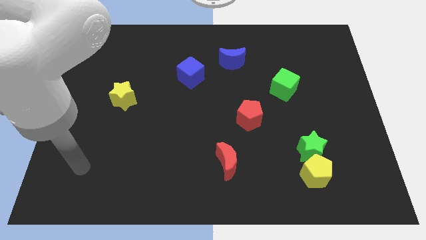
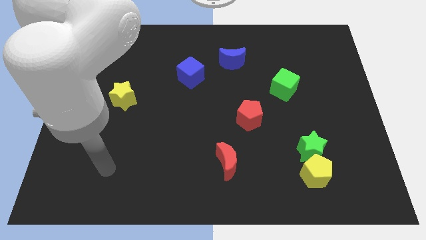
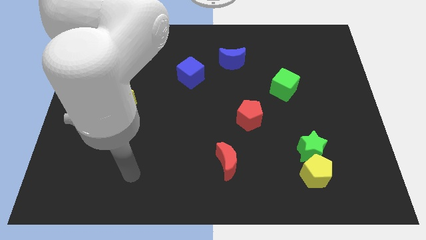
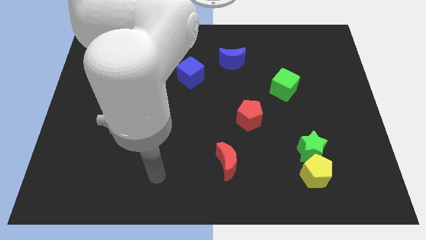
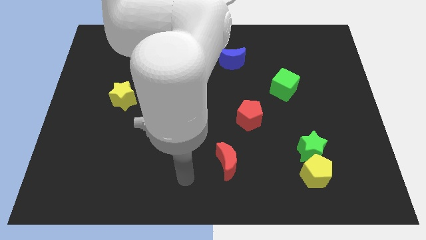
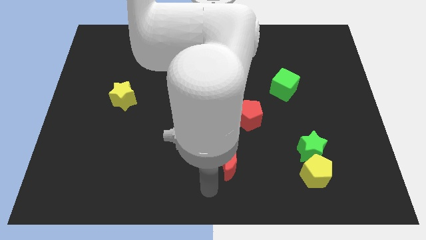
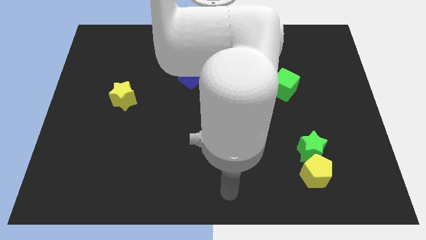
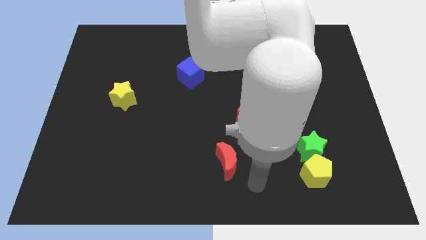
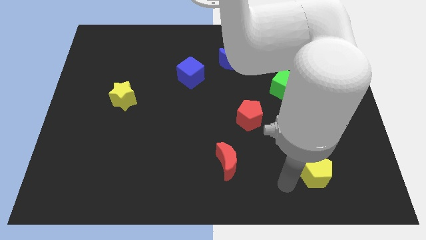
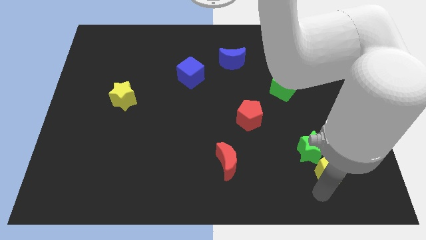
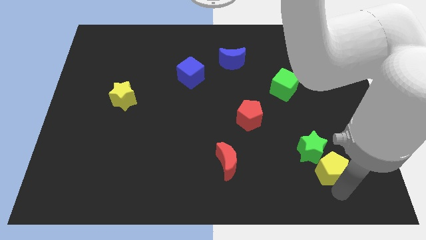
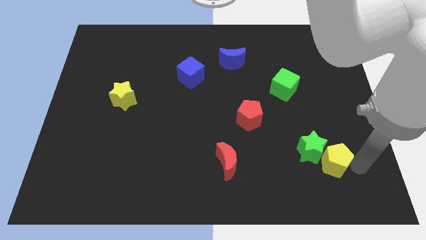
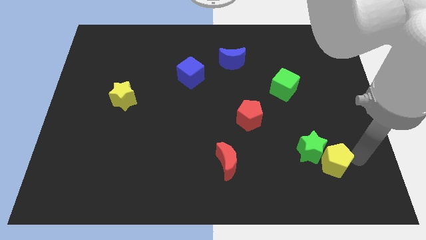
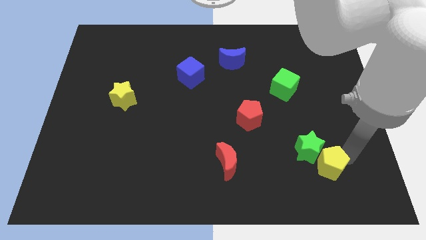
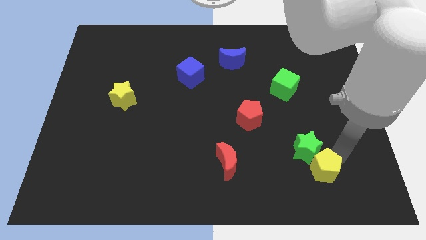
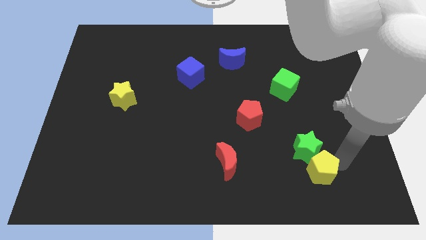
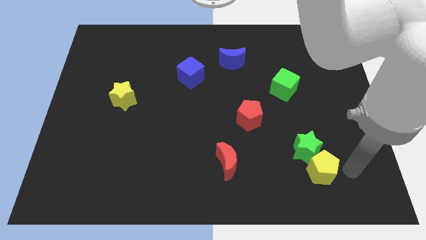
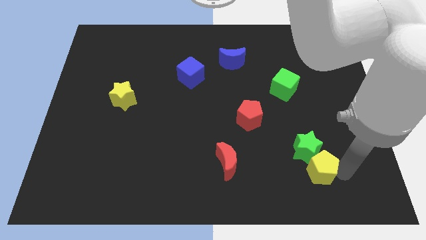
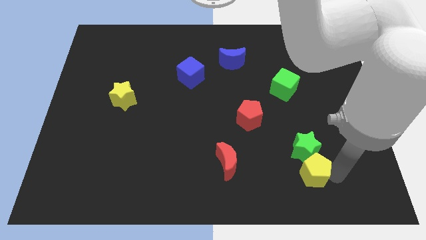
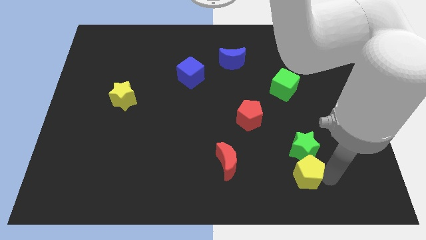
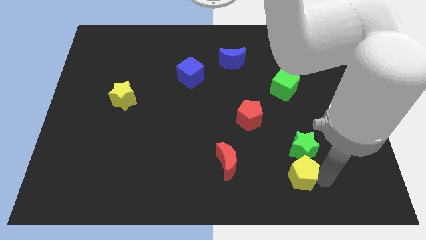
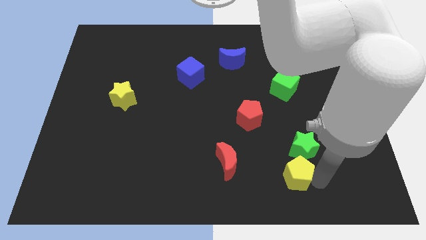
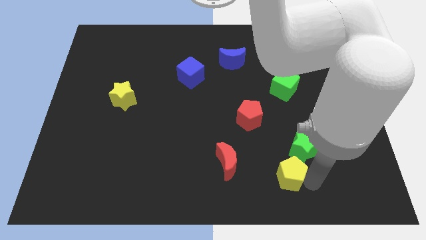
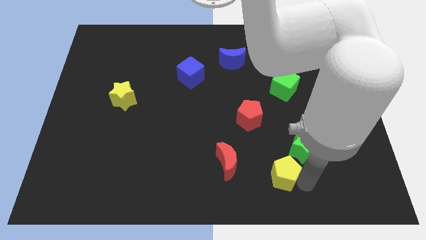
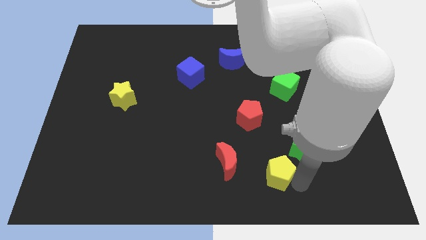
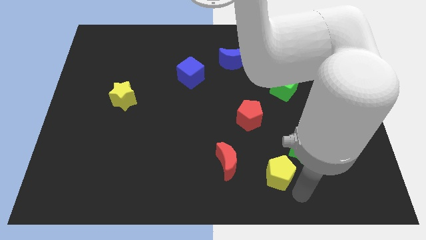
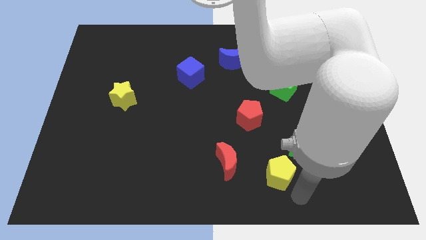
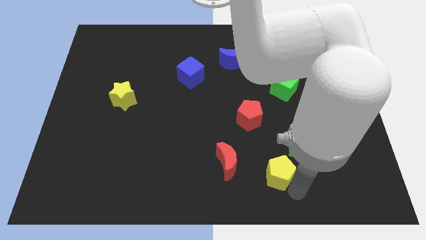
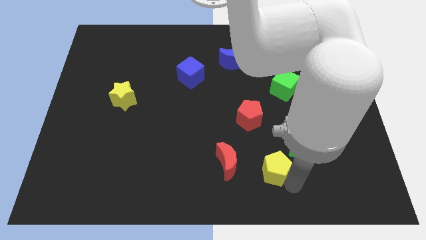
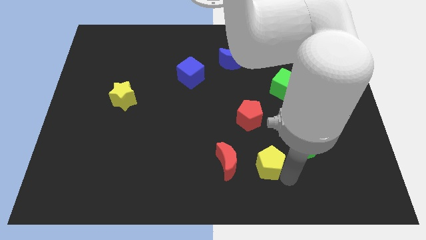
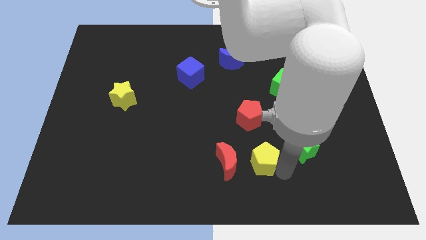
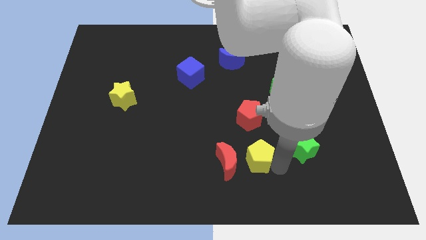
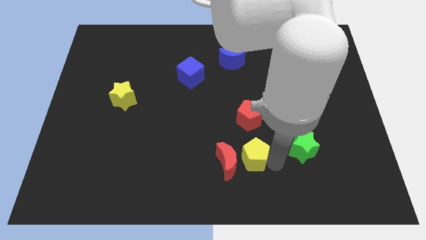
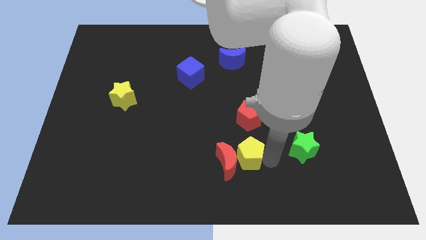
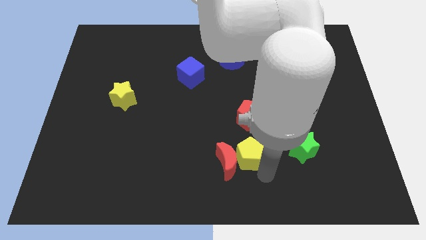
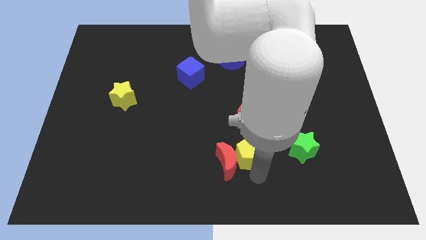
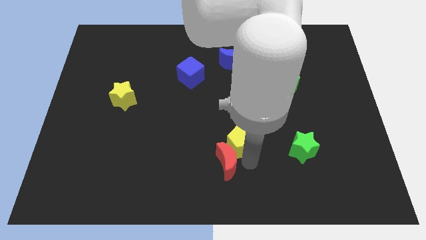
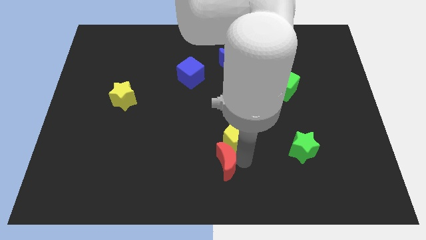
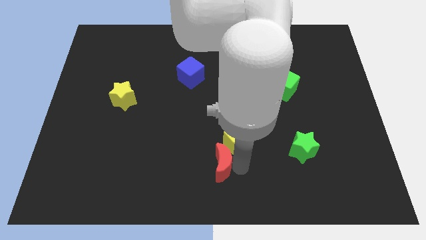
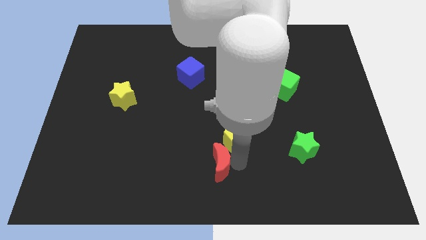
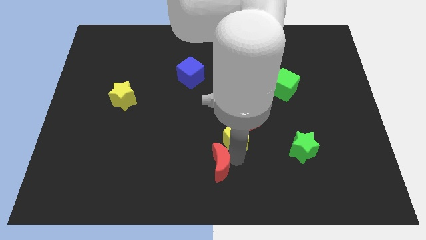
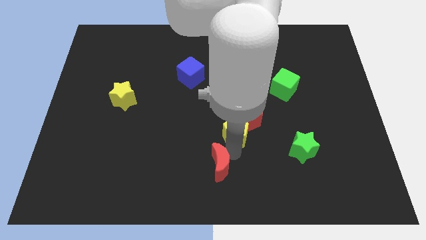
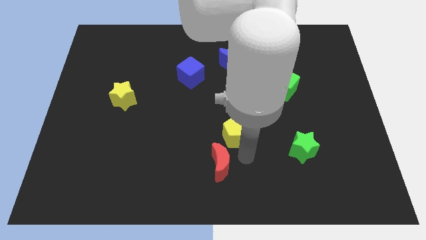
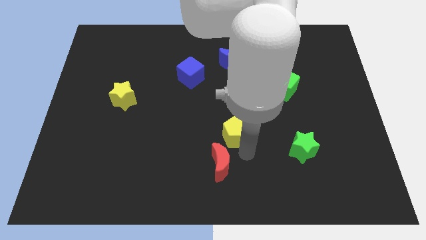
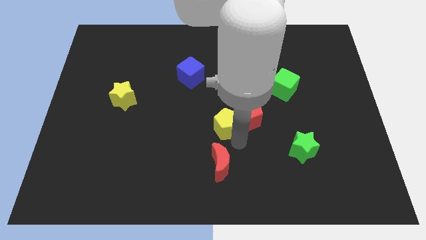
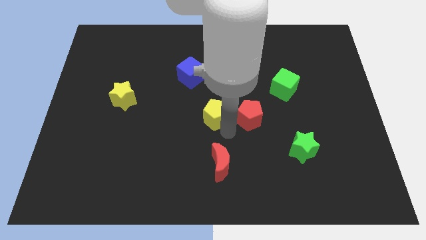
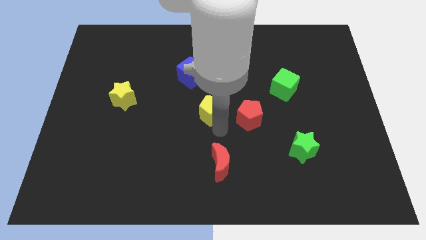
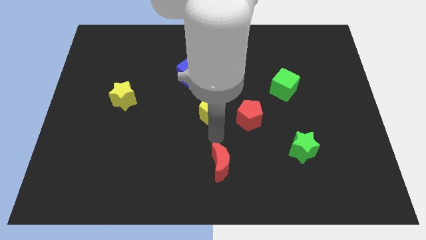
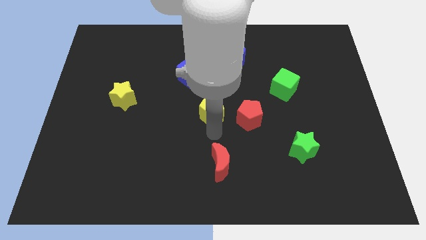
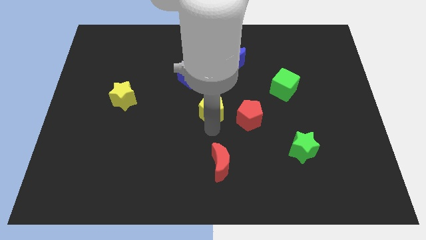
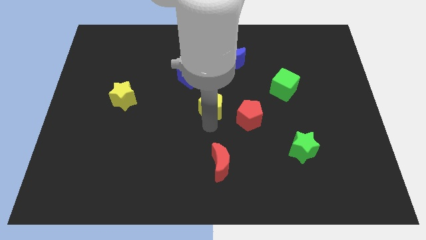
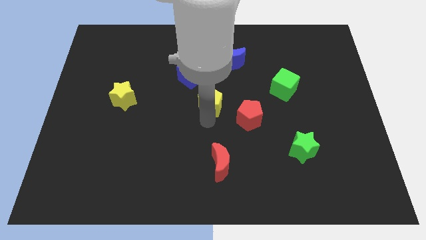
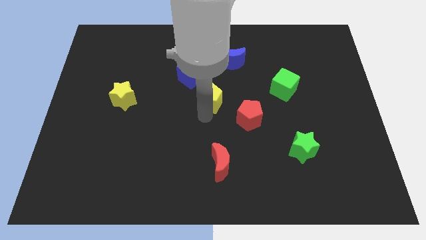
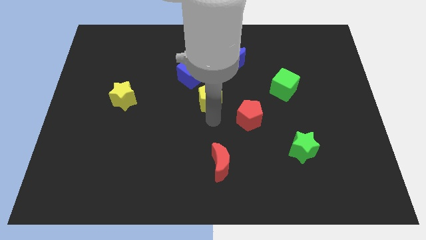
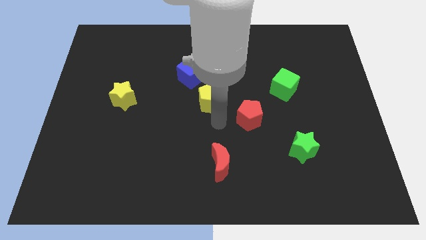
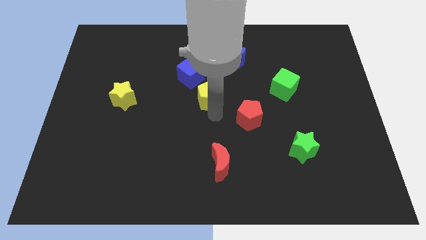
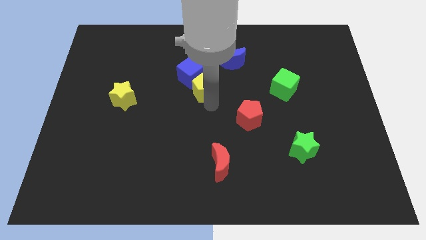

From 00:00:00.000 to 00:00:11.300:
slide the yellow pentagon close to the blue cube

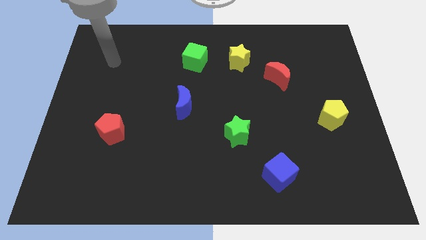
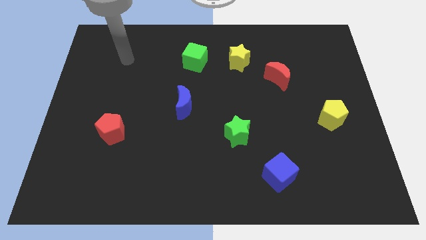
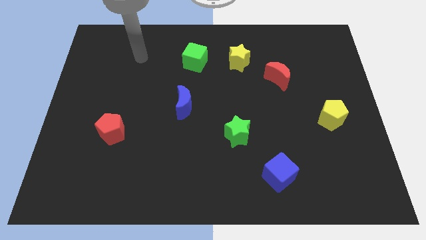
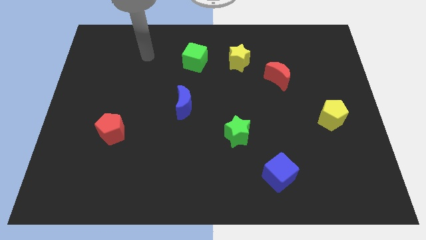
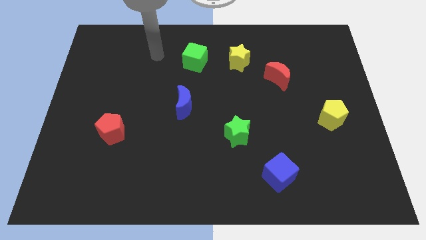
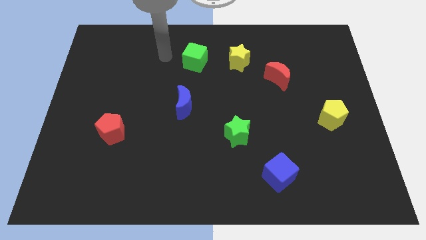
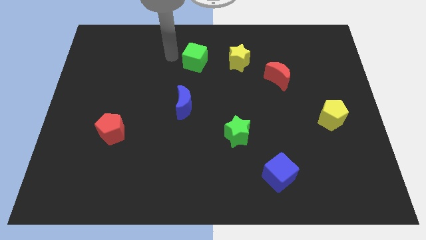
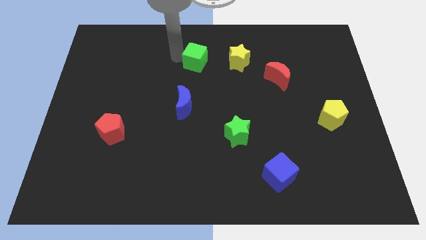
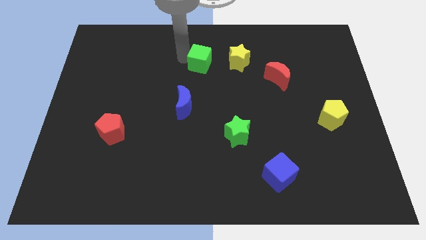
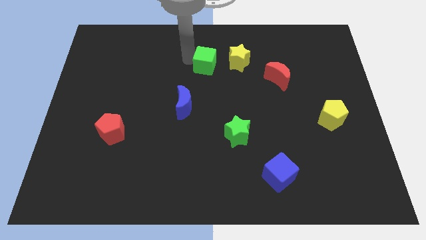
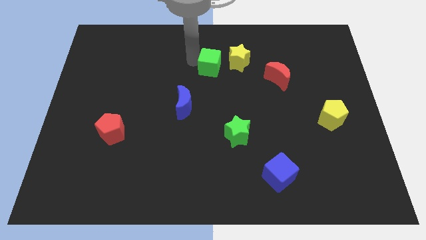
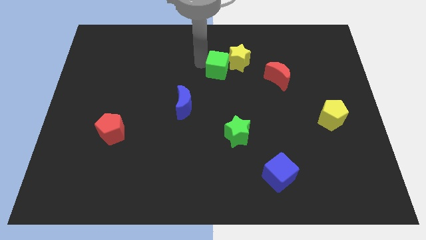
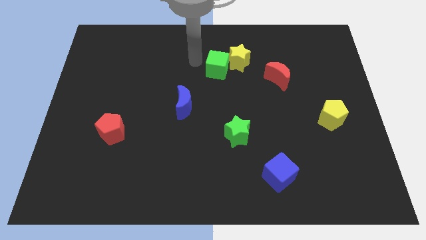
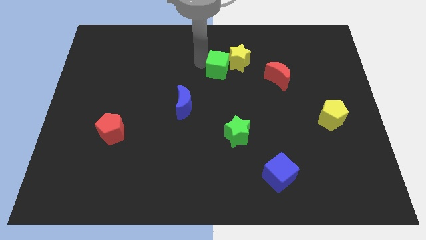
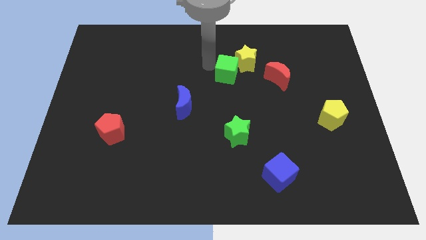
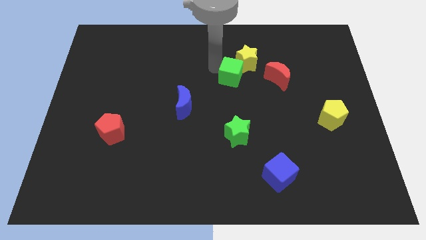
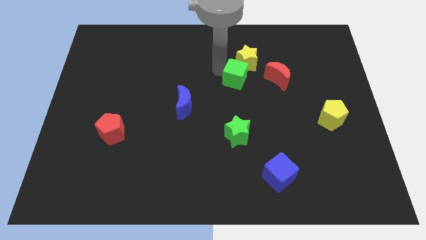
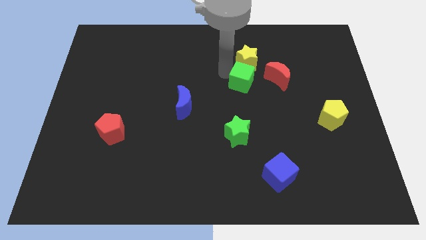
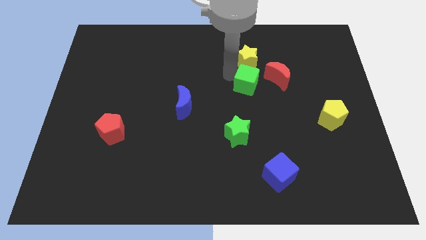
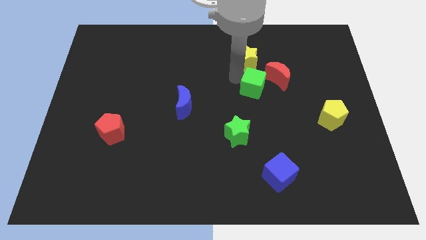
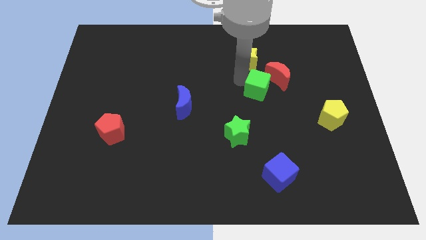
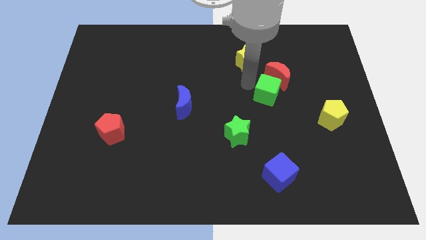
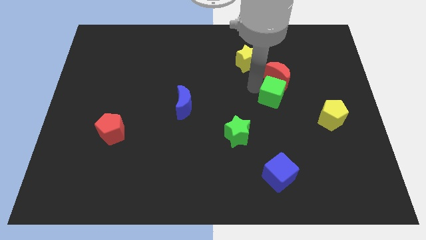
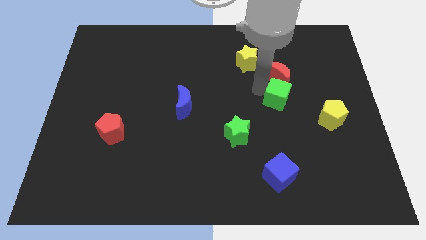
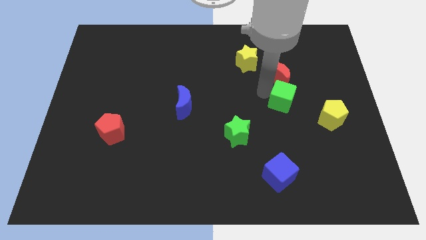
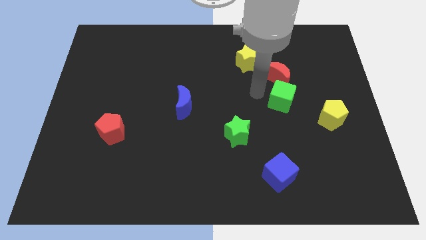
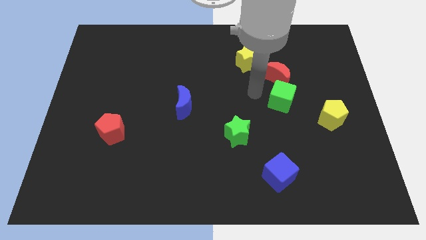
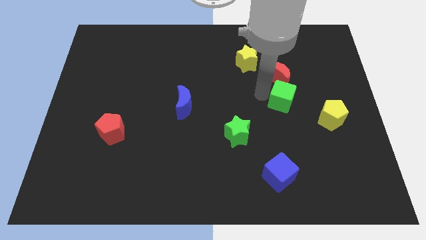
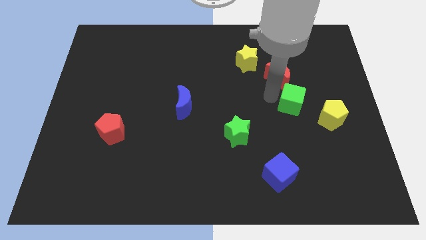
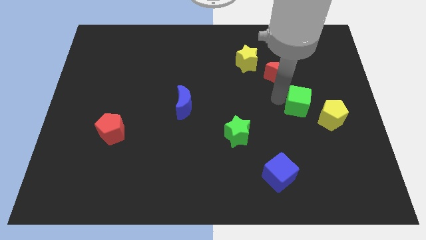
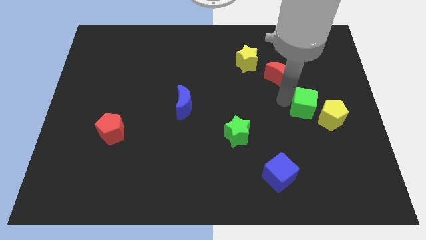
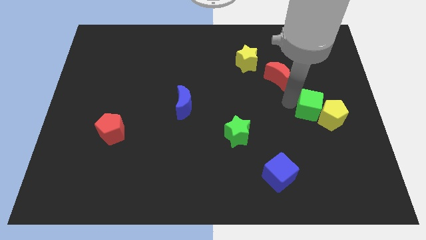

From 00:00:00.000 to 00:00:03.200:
slide the green cube towards the yellow pentagon
